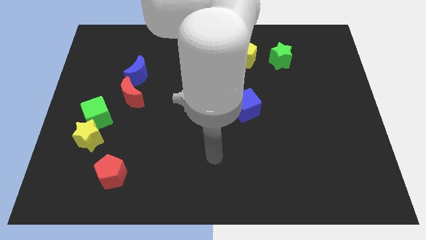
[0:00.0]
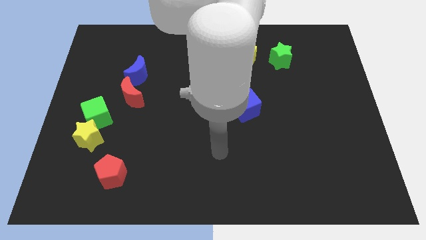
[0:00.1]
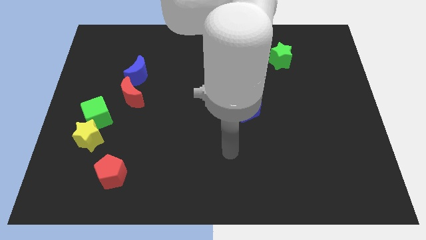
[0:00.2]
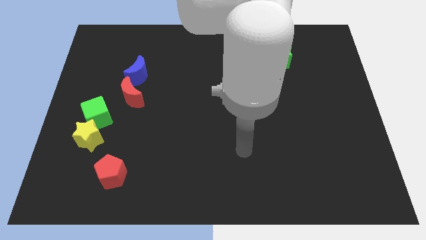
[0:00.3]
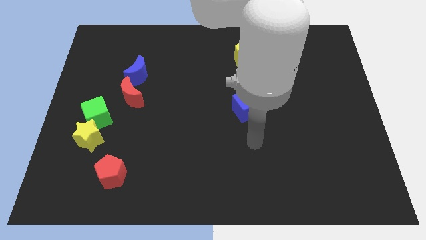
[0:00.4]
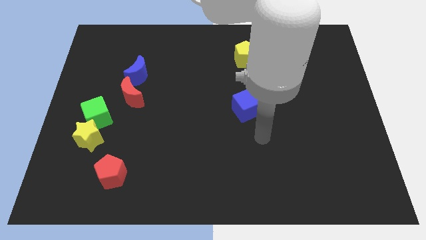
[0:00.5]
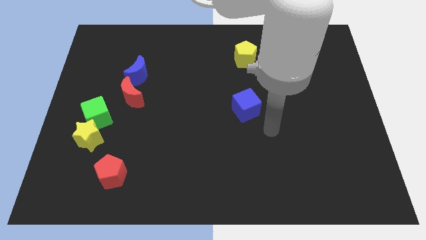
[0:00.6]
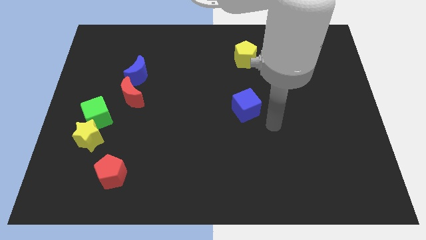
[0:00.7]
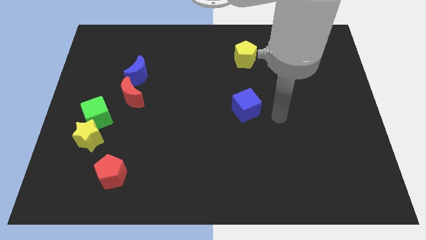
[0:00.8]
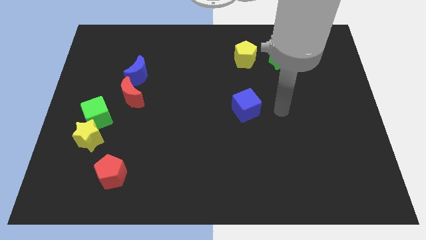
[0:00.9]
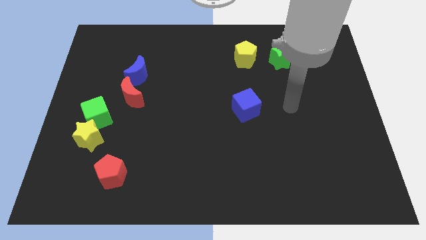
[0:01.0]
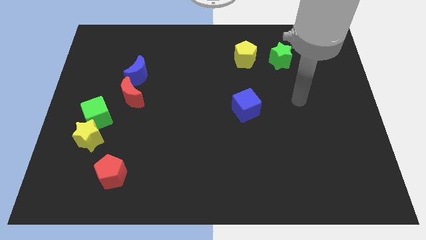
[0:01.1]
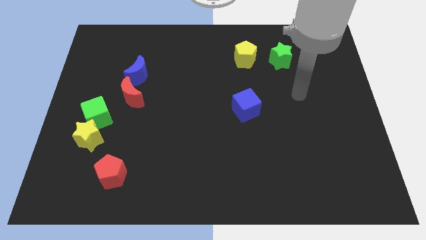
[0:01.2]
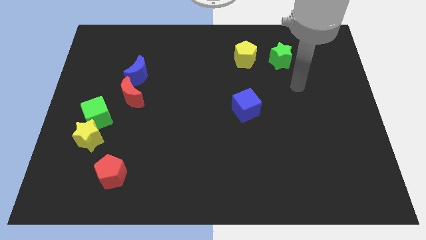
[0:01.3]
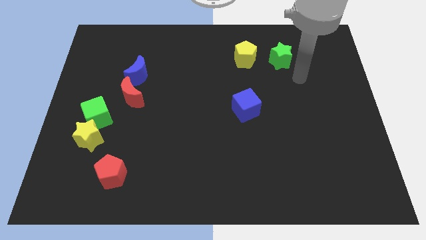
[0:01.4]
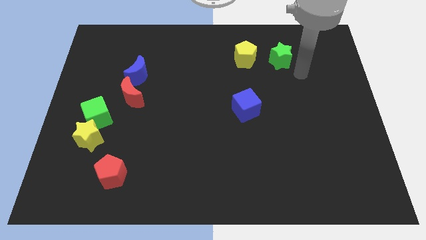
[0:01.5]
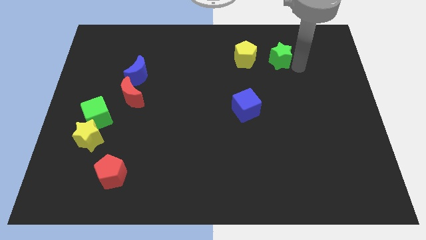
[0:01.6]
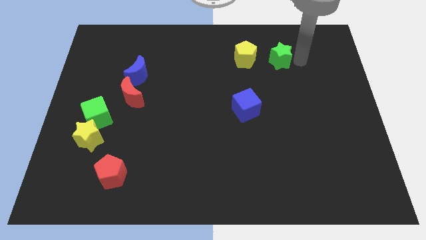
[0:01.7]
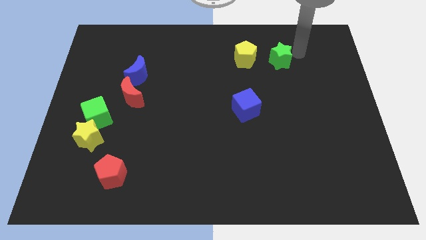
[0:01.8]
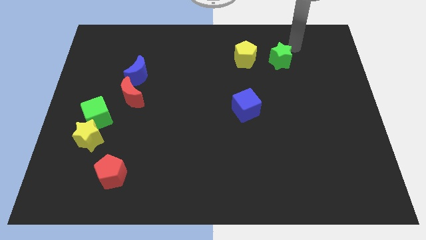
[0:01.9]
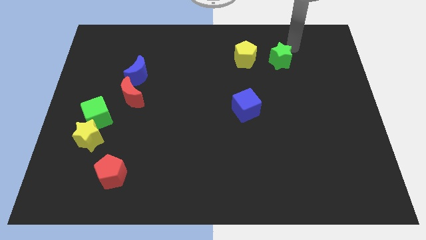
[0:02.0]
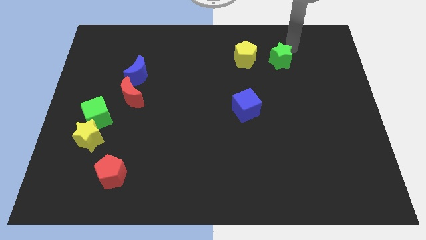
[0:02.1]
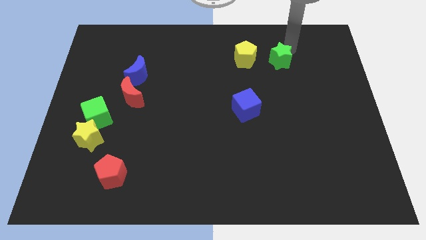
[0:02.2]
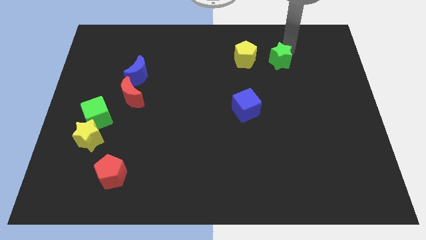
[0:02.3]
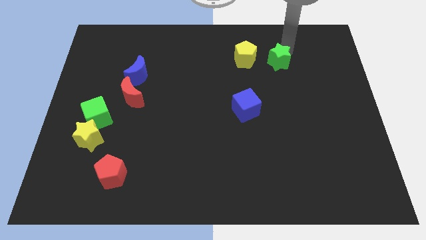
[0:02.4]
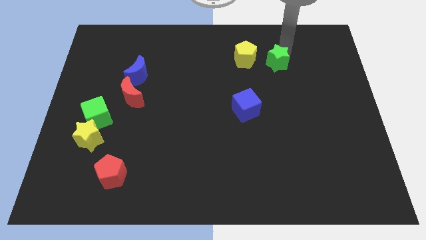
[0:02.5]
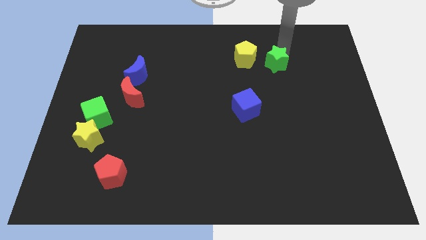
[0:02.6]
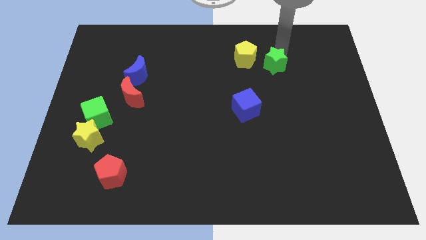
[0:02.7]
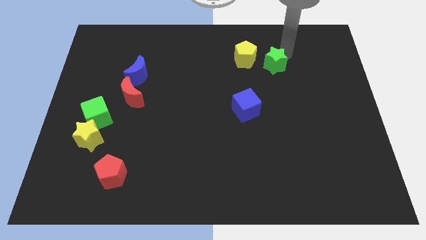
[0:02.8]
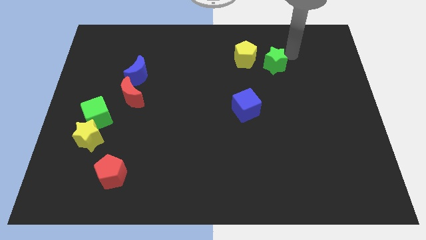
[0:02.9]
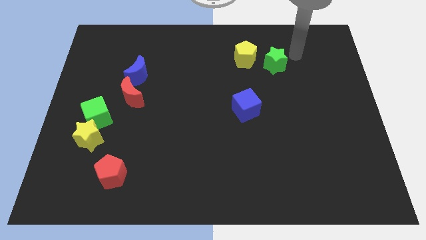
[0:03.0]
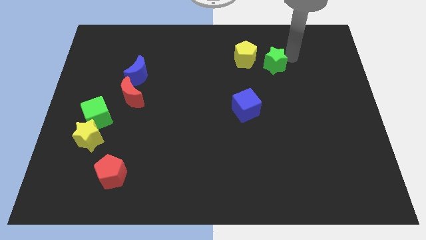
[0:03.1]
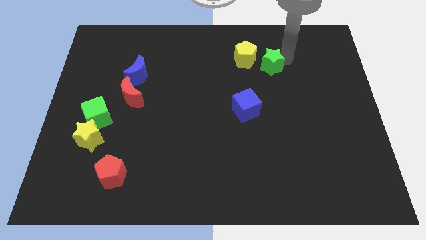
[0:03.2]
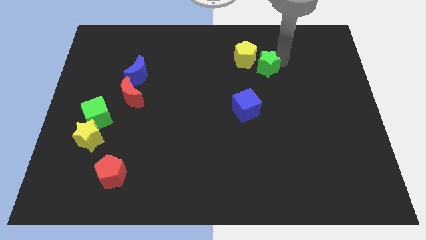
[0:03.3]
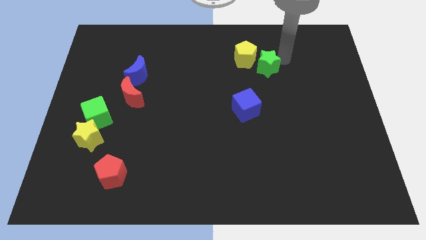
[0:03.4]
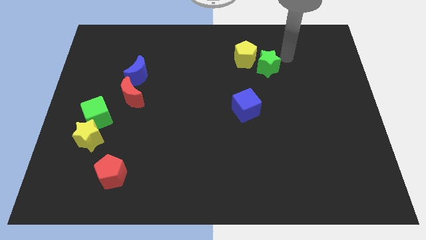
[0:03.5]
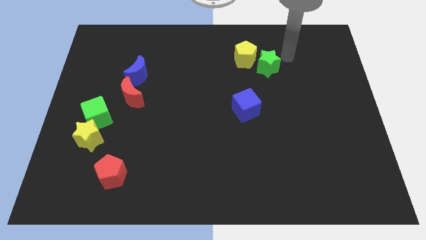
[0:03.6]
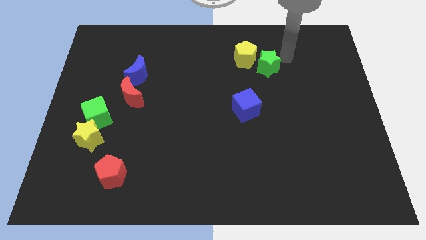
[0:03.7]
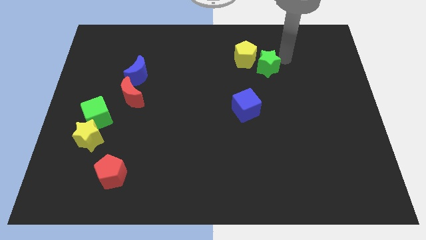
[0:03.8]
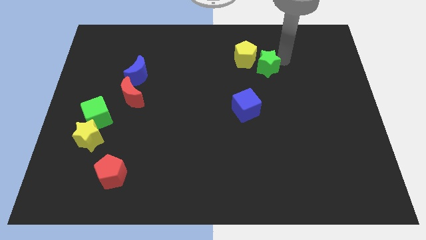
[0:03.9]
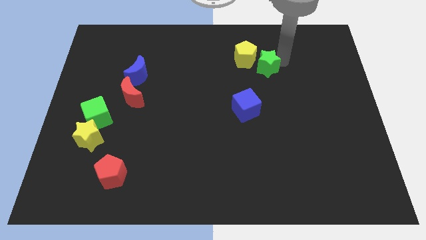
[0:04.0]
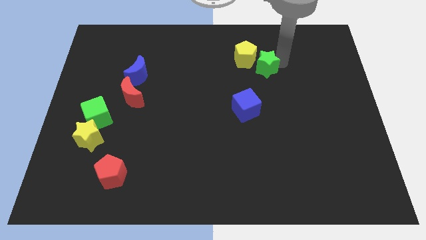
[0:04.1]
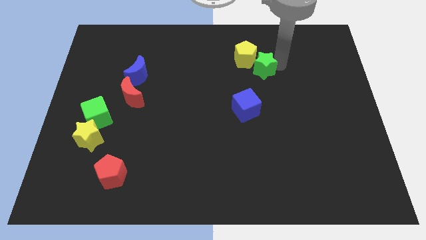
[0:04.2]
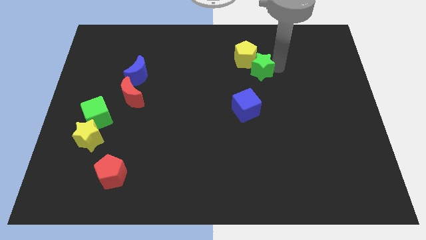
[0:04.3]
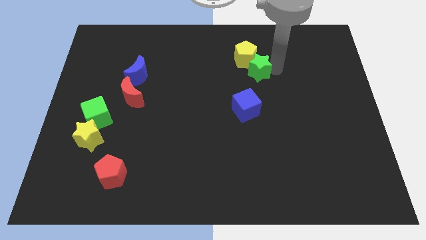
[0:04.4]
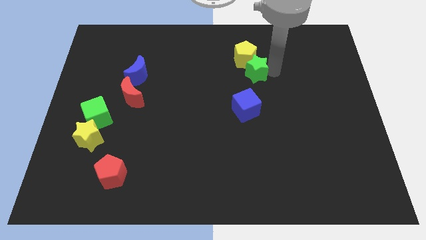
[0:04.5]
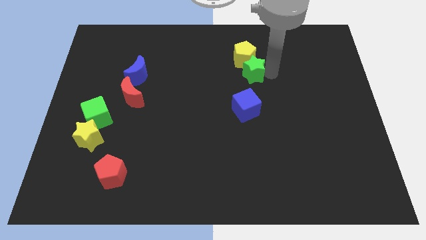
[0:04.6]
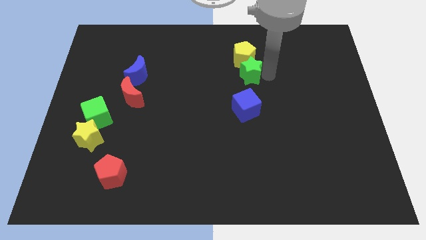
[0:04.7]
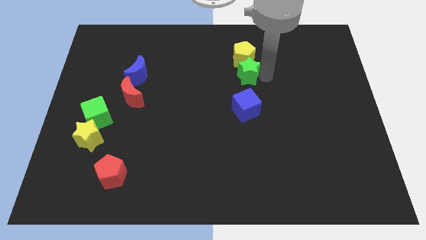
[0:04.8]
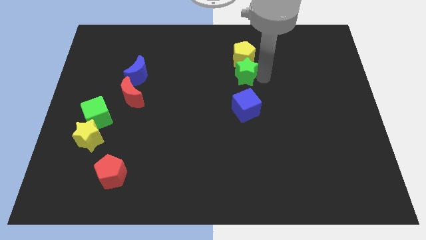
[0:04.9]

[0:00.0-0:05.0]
slide the green star to the bottom left of the yellow pentagon
